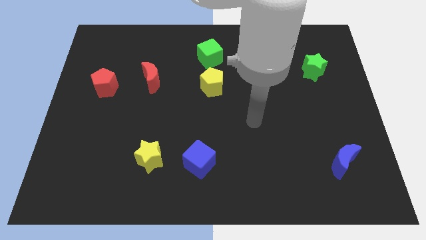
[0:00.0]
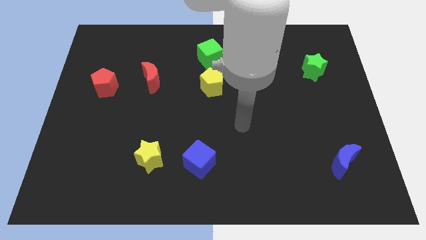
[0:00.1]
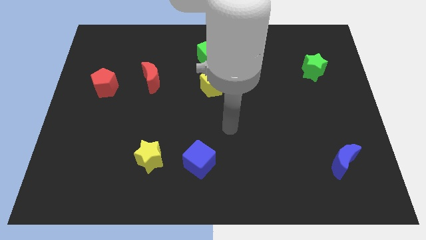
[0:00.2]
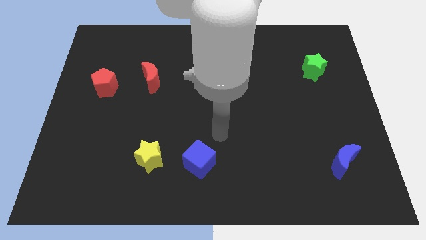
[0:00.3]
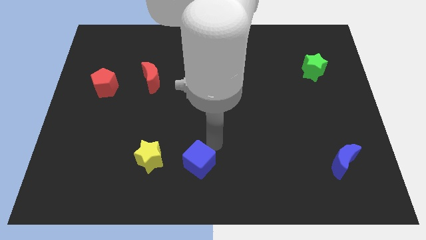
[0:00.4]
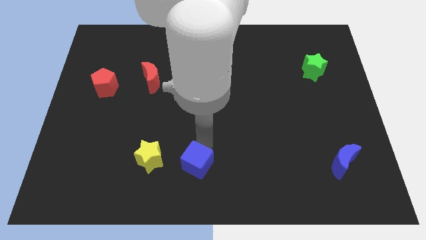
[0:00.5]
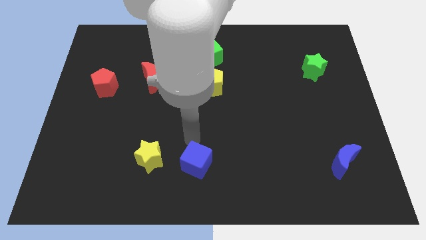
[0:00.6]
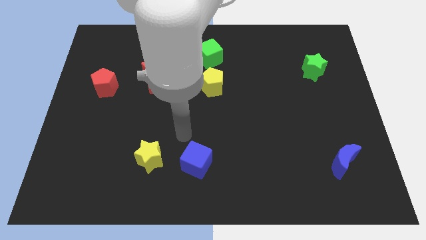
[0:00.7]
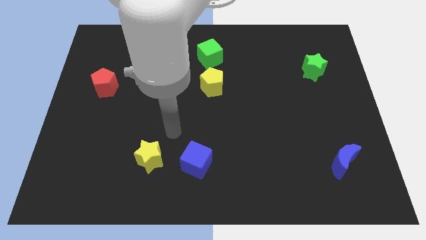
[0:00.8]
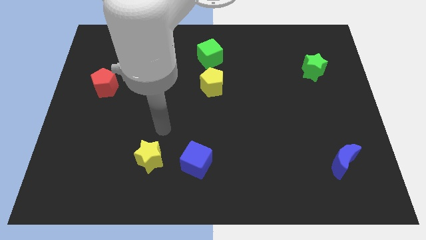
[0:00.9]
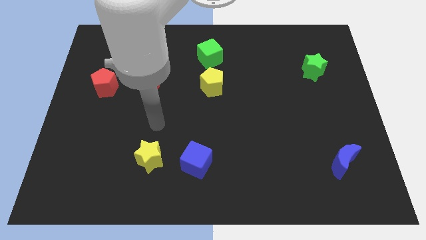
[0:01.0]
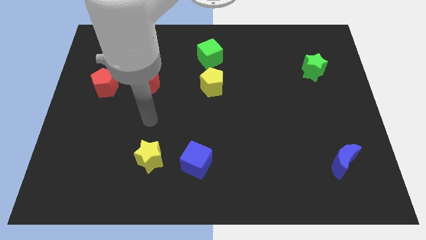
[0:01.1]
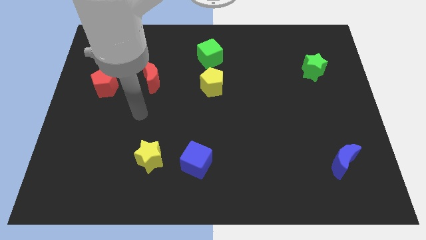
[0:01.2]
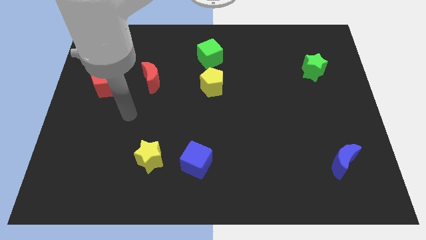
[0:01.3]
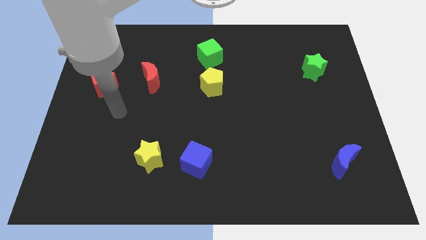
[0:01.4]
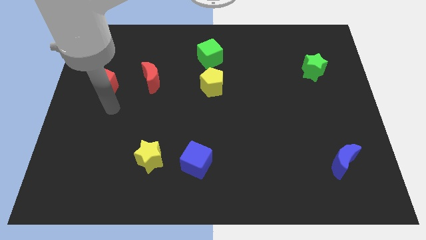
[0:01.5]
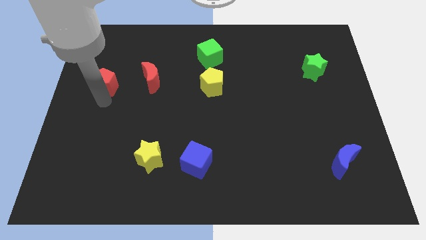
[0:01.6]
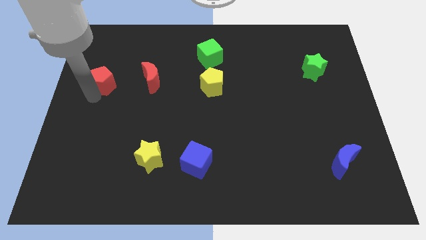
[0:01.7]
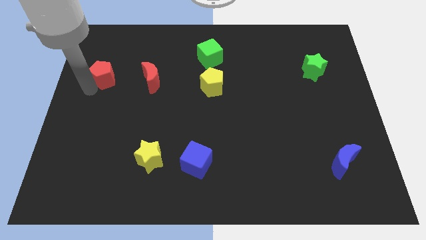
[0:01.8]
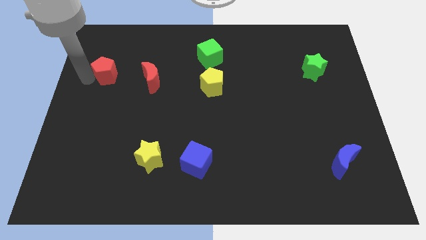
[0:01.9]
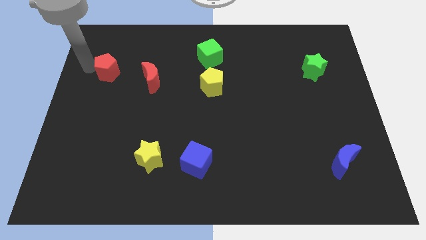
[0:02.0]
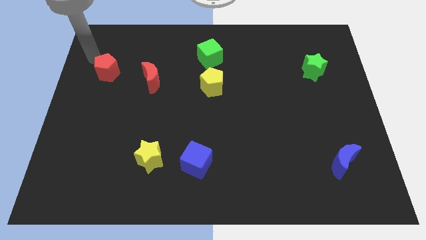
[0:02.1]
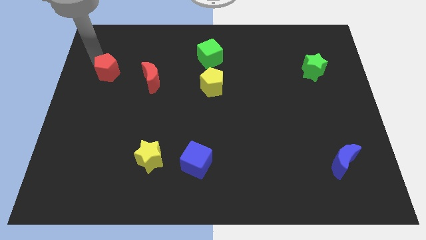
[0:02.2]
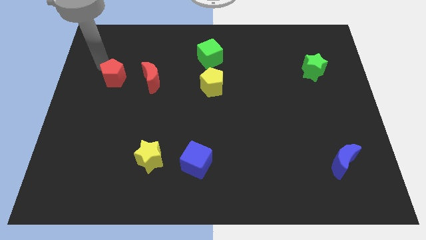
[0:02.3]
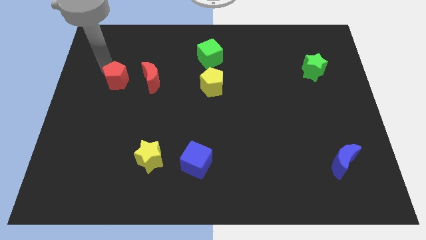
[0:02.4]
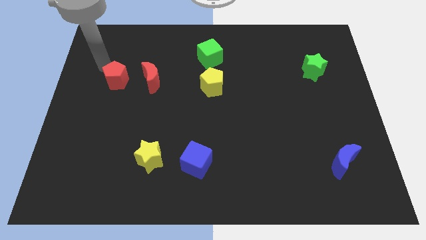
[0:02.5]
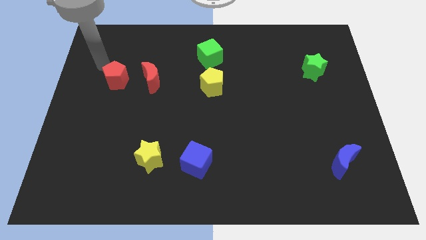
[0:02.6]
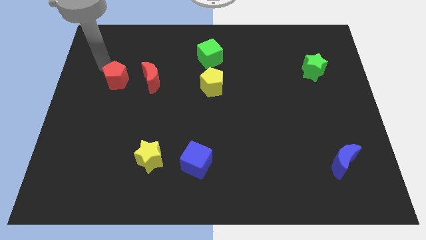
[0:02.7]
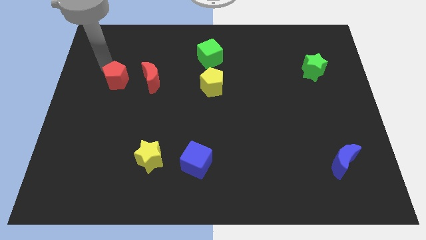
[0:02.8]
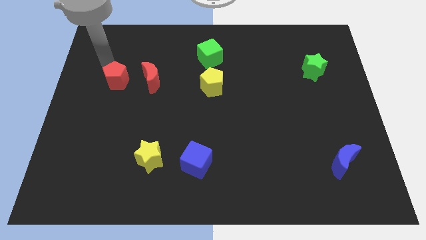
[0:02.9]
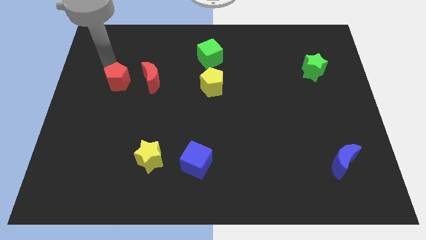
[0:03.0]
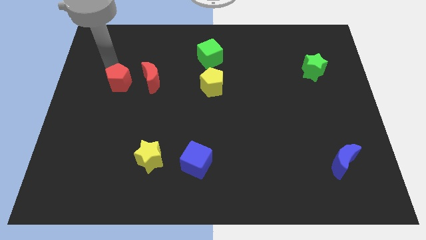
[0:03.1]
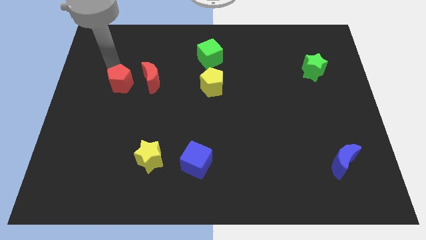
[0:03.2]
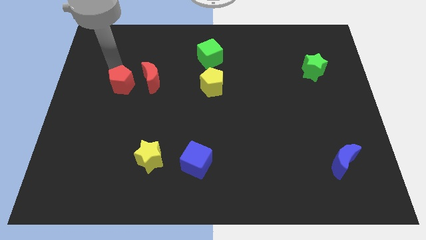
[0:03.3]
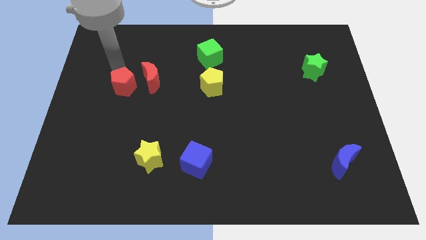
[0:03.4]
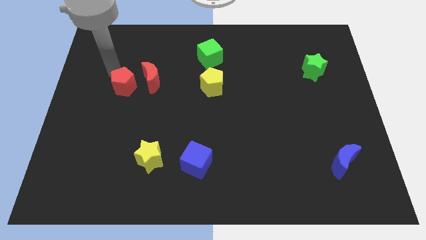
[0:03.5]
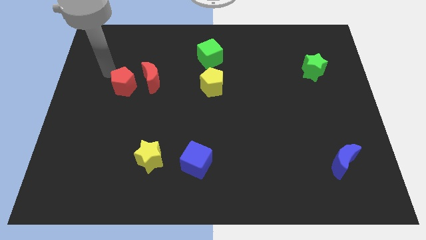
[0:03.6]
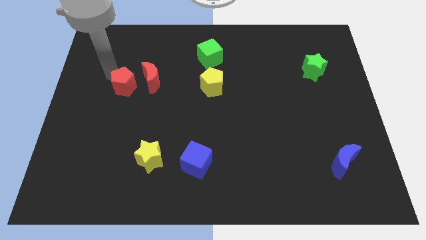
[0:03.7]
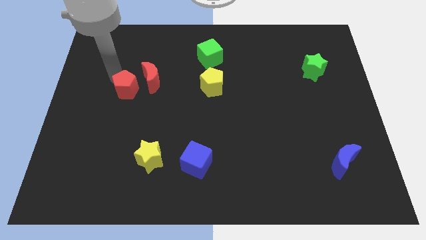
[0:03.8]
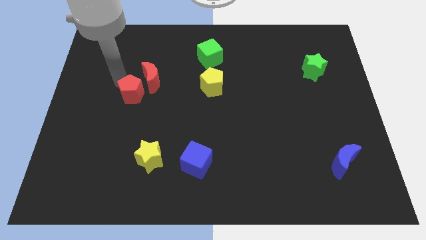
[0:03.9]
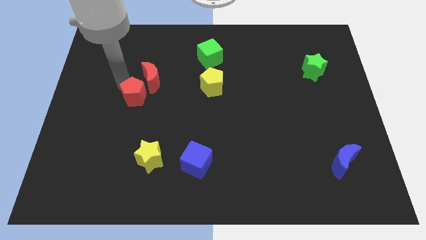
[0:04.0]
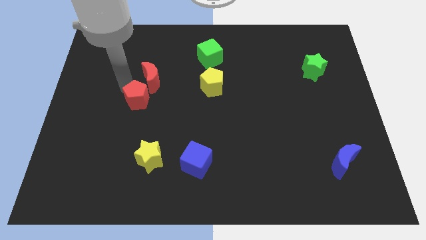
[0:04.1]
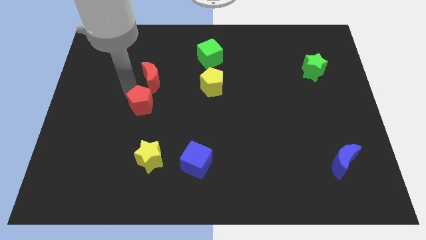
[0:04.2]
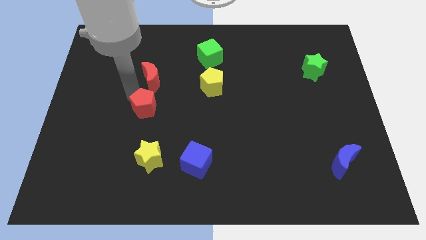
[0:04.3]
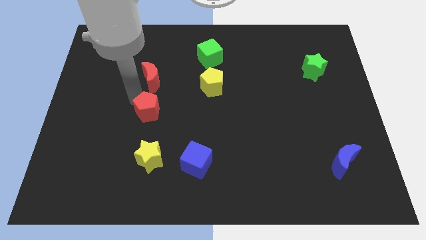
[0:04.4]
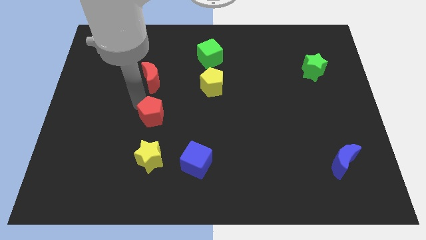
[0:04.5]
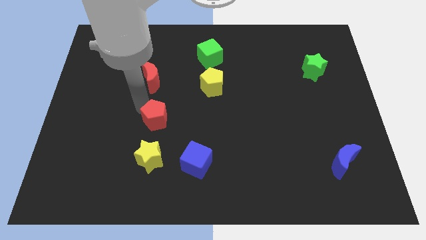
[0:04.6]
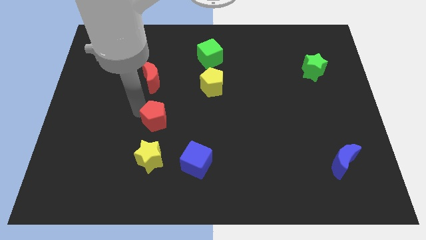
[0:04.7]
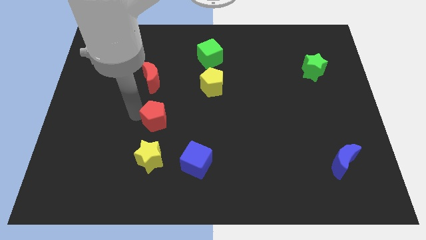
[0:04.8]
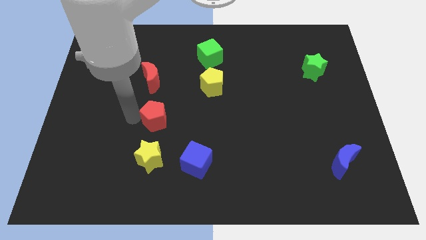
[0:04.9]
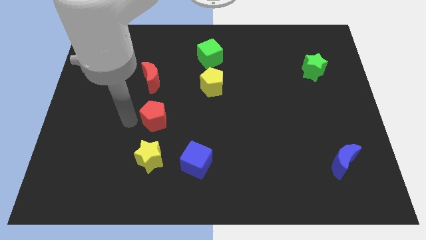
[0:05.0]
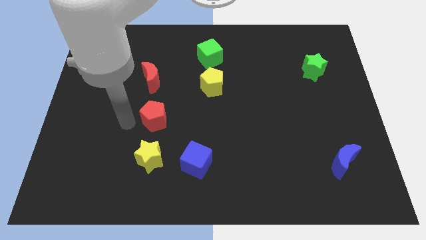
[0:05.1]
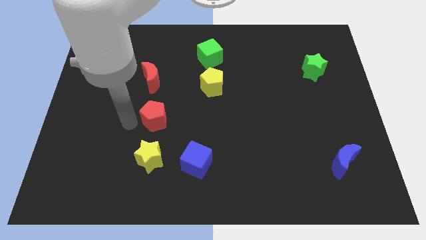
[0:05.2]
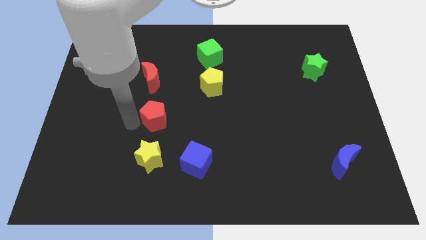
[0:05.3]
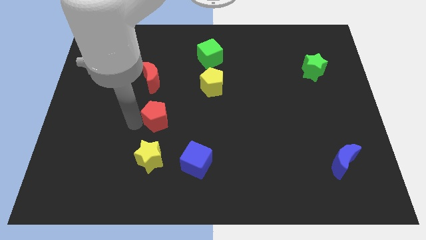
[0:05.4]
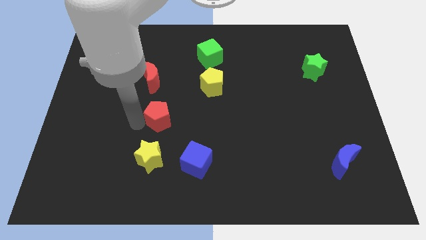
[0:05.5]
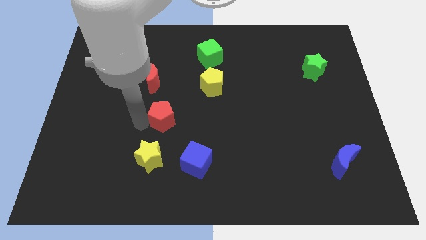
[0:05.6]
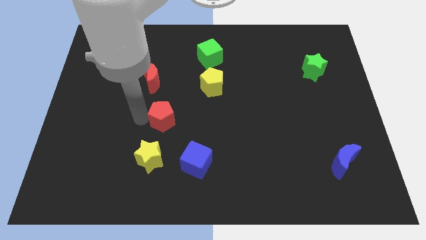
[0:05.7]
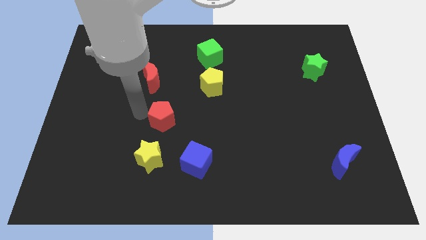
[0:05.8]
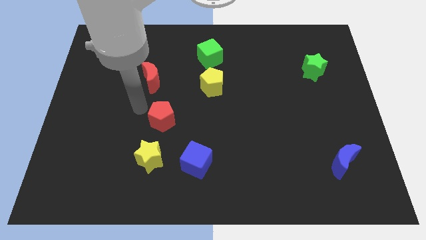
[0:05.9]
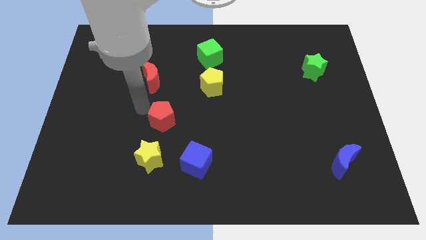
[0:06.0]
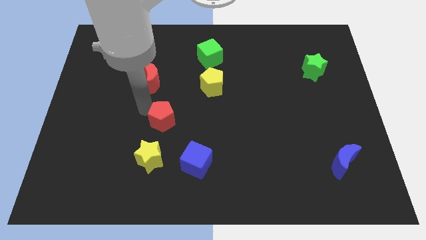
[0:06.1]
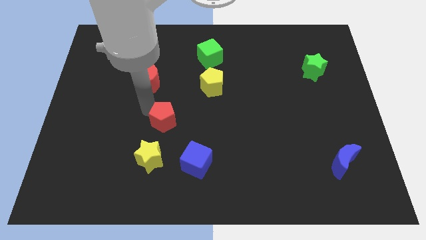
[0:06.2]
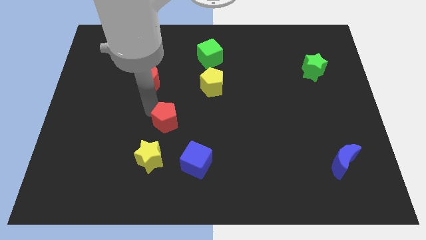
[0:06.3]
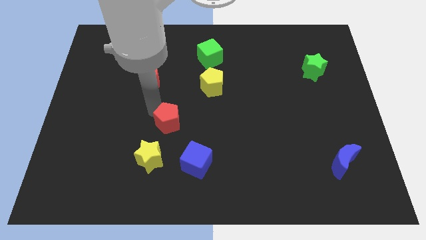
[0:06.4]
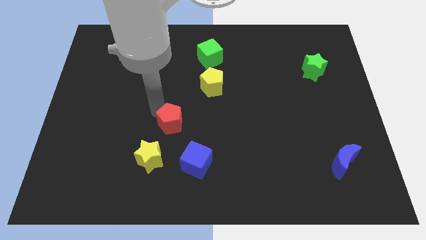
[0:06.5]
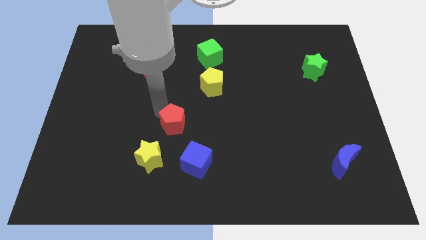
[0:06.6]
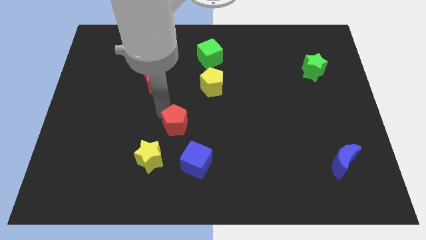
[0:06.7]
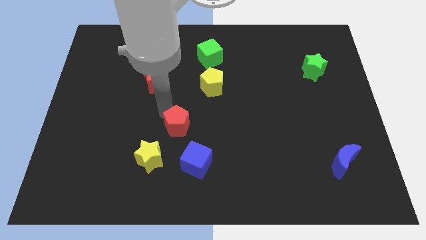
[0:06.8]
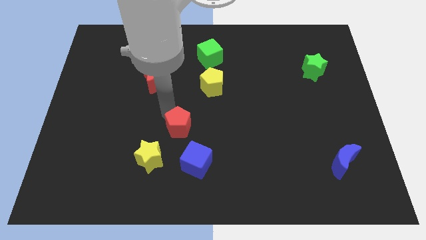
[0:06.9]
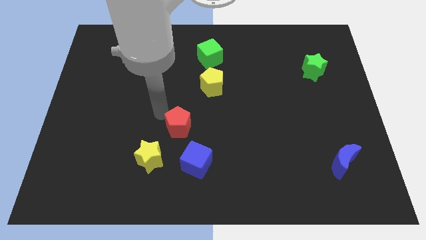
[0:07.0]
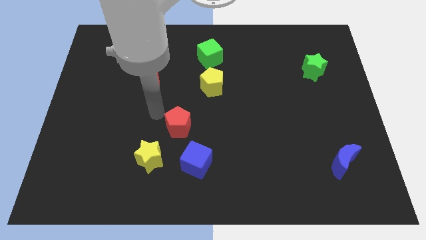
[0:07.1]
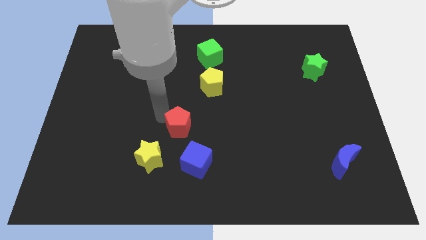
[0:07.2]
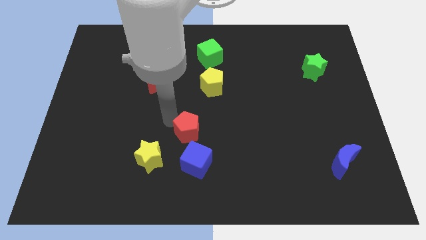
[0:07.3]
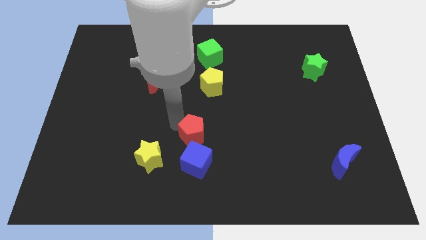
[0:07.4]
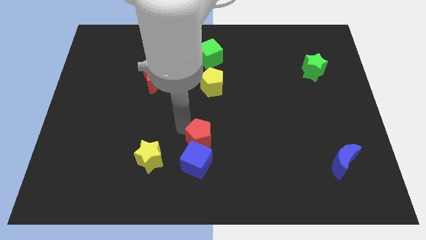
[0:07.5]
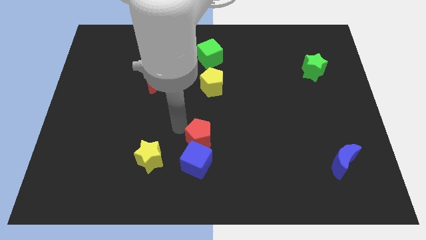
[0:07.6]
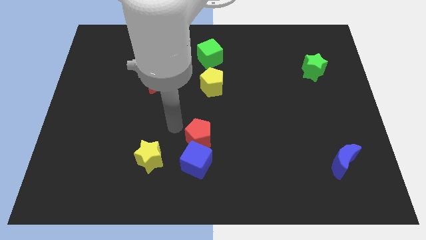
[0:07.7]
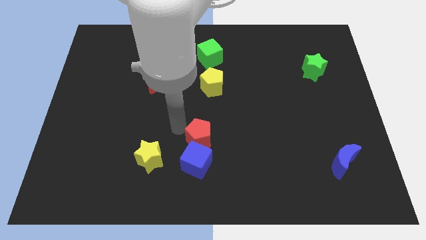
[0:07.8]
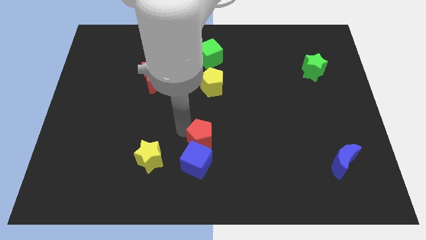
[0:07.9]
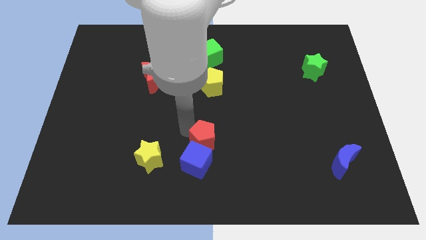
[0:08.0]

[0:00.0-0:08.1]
move the red pentagon to the right side of the yellow star
